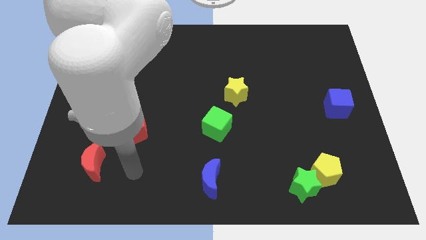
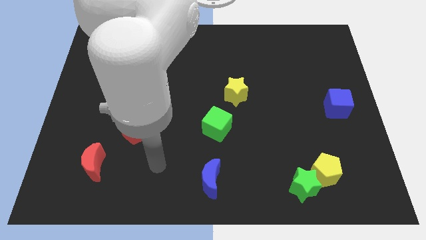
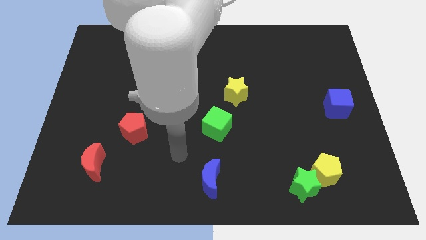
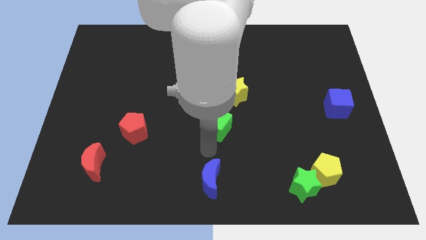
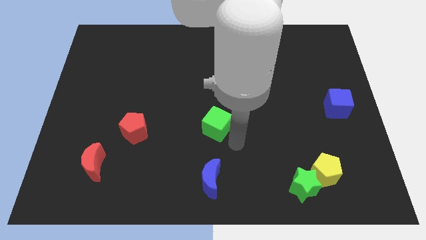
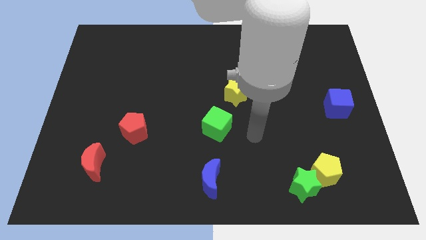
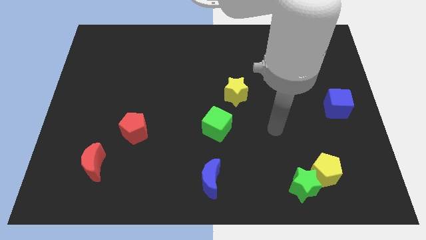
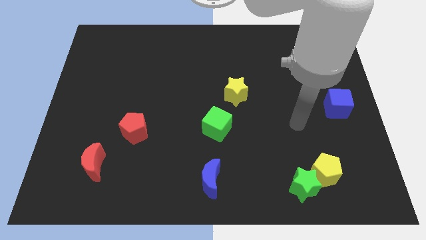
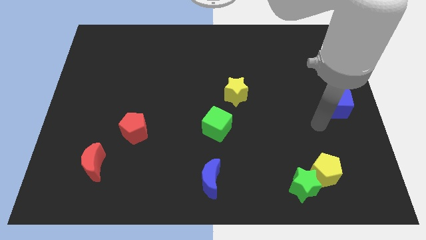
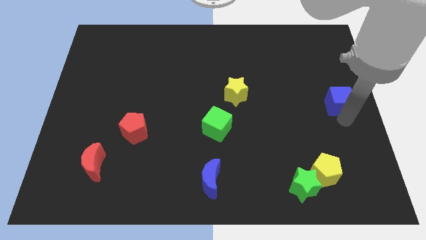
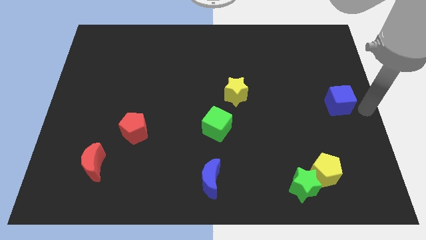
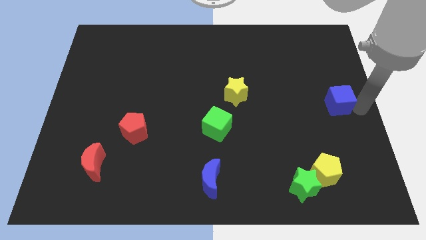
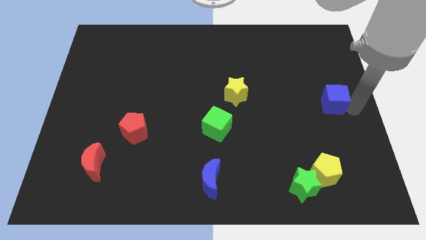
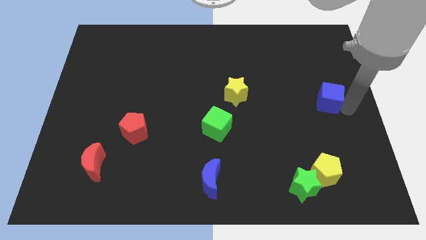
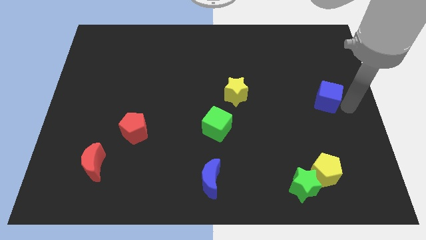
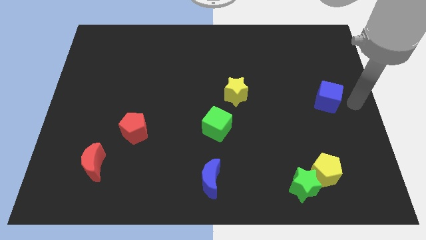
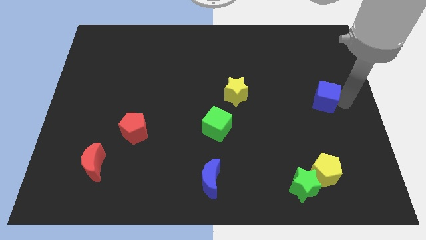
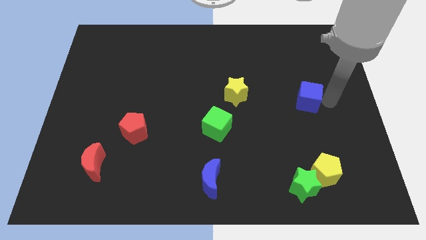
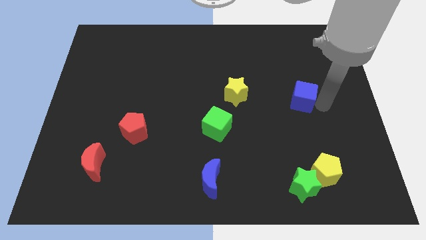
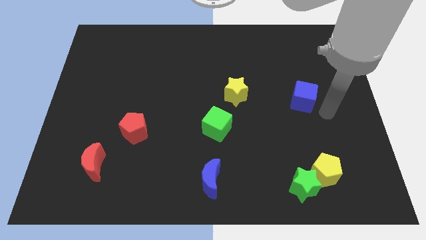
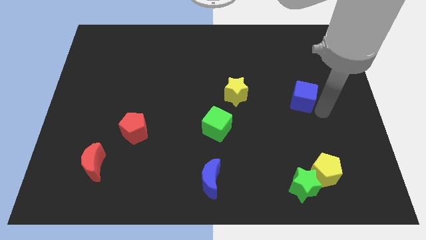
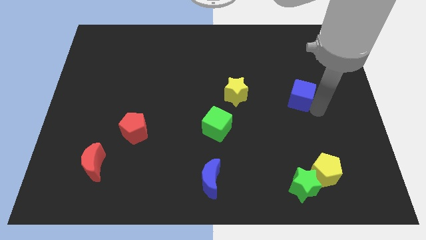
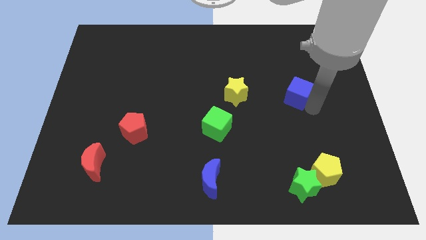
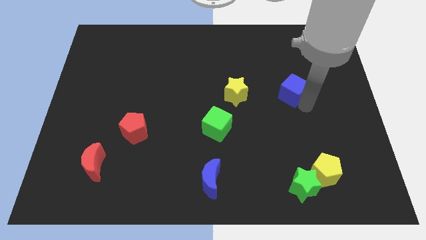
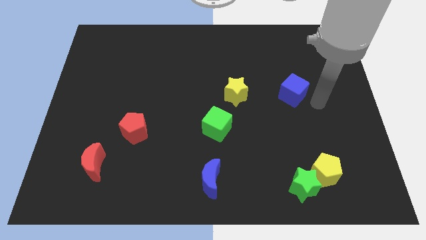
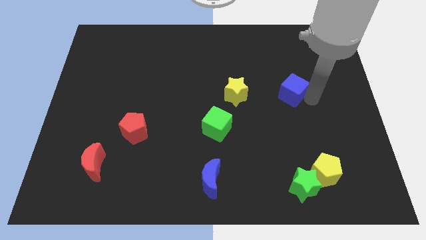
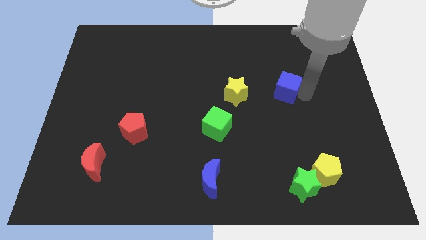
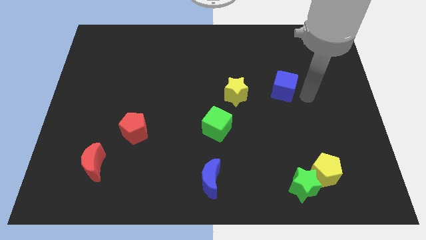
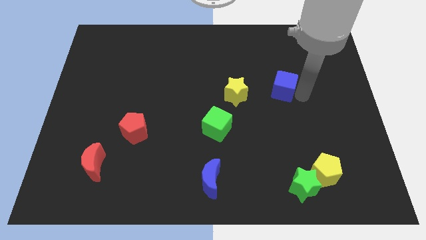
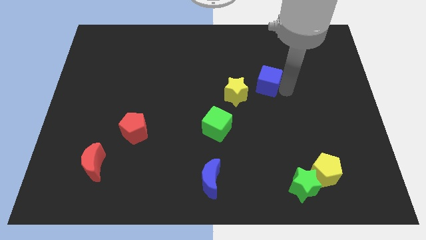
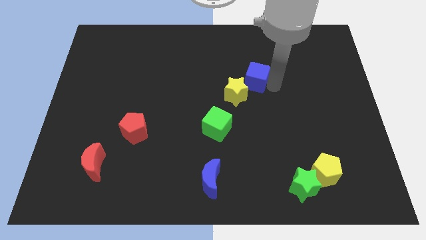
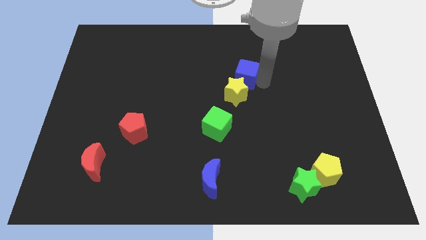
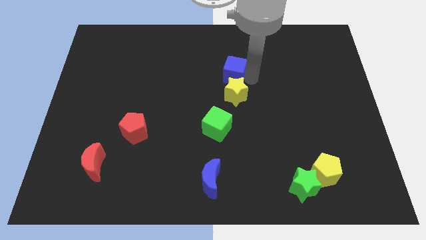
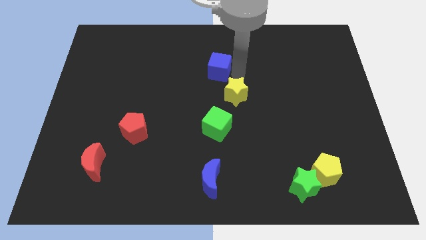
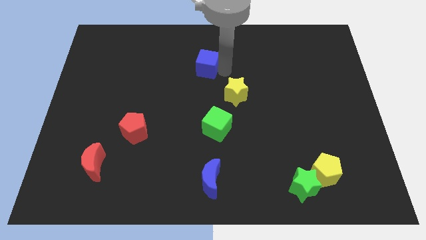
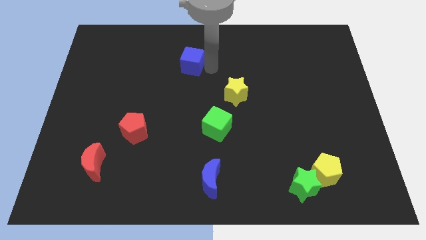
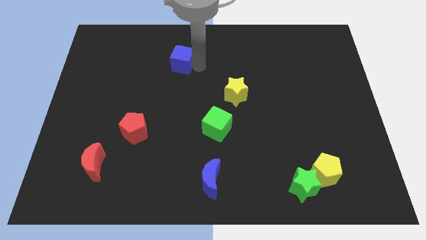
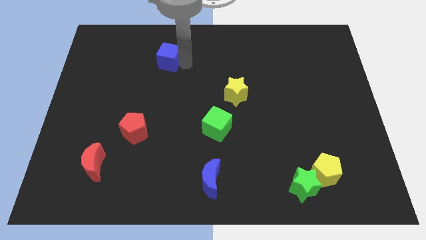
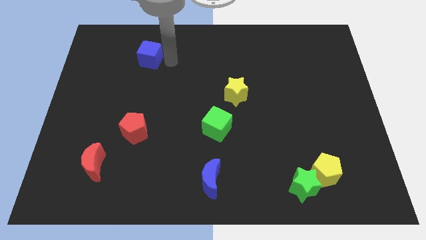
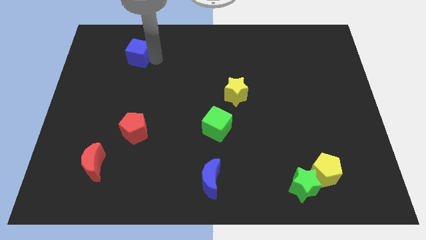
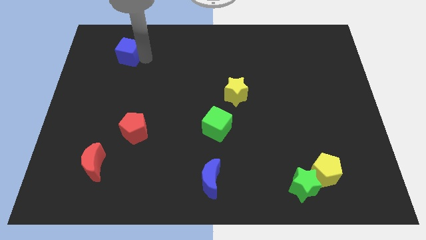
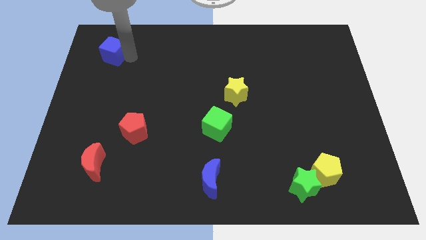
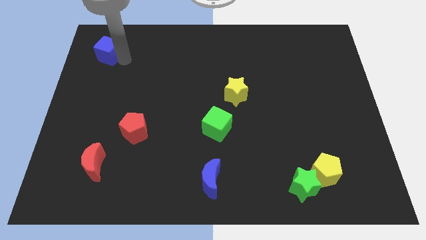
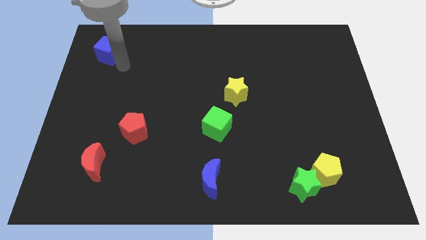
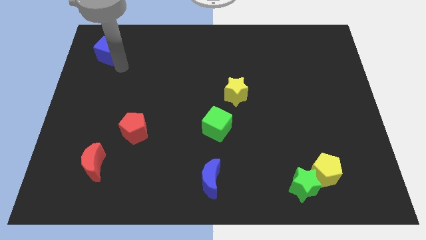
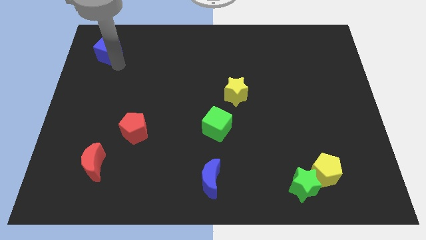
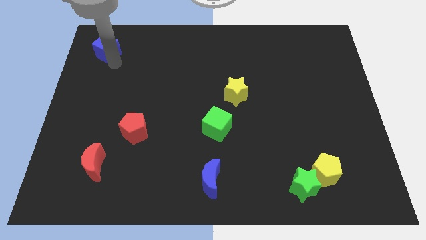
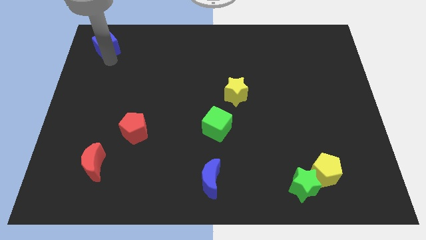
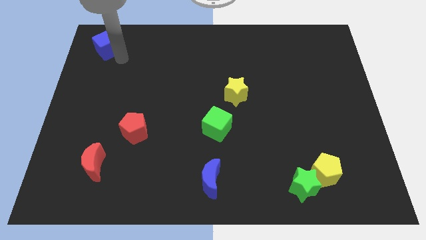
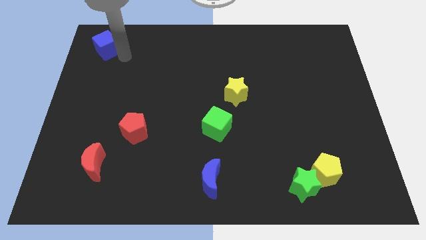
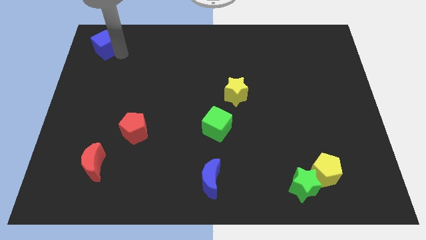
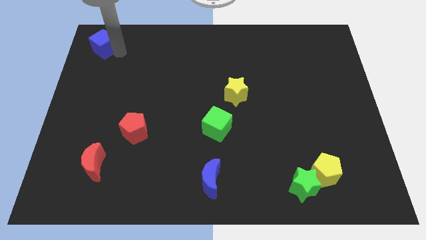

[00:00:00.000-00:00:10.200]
move the blue cube to the top left

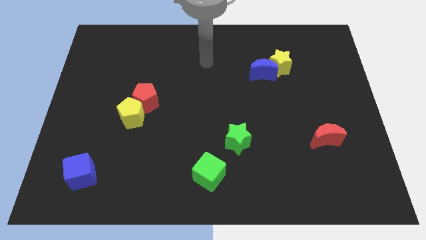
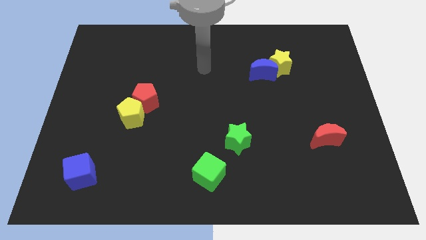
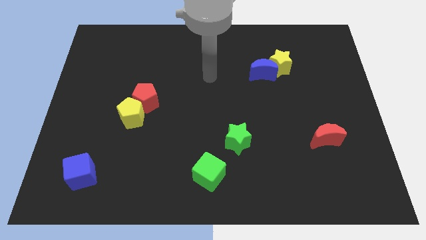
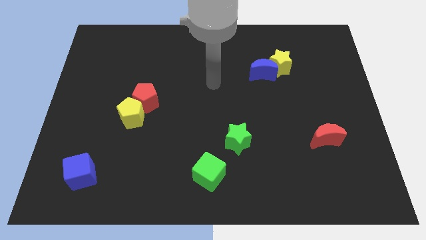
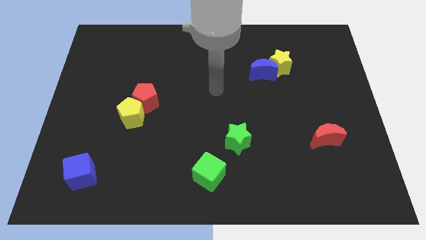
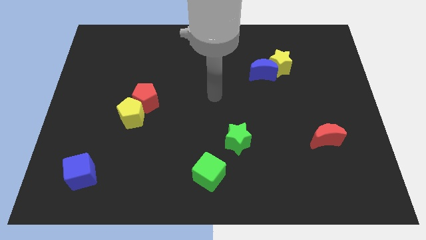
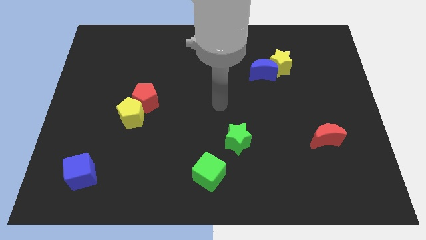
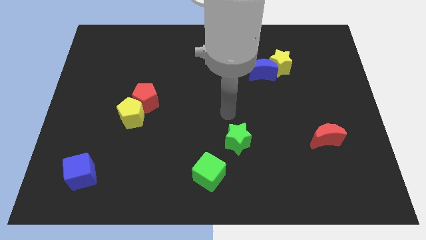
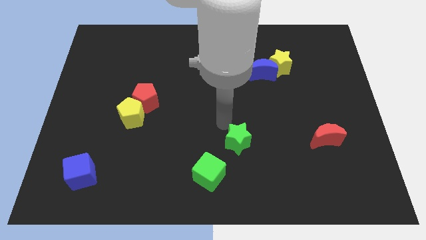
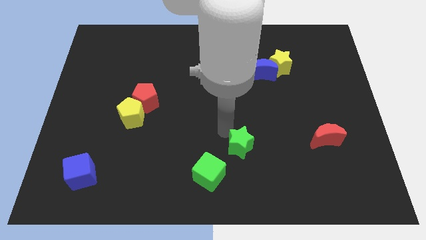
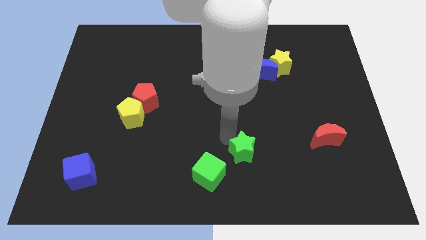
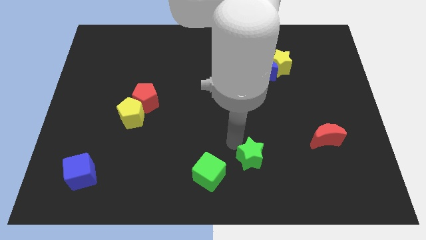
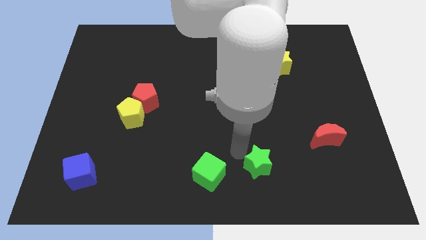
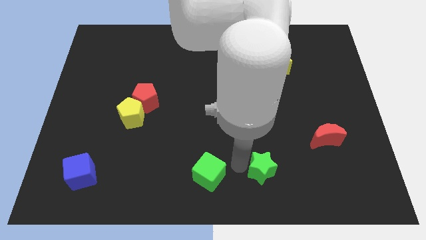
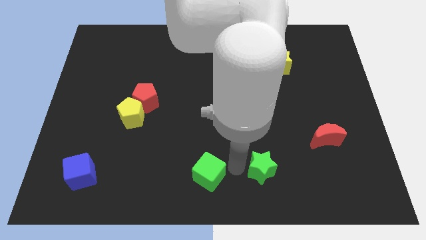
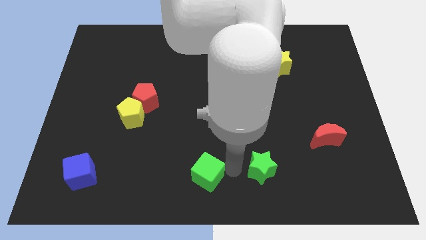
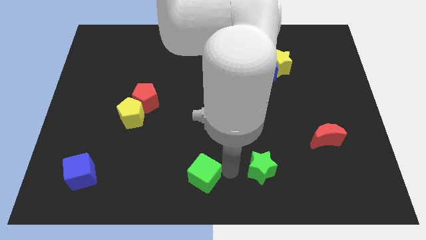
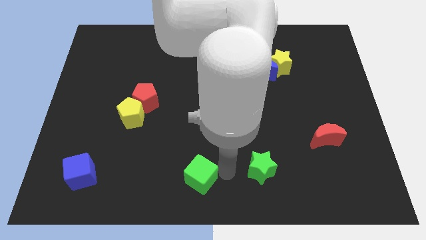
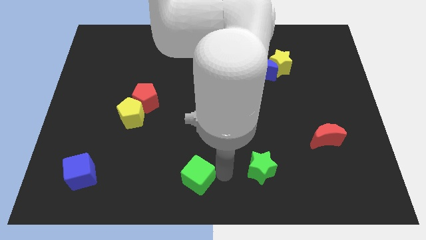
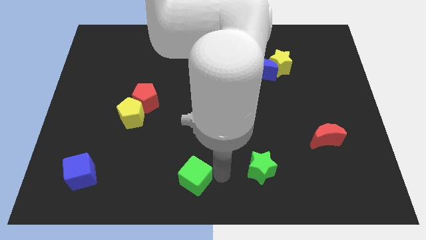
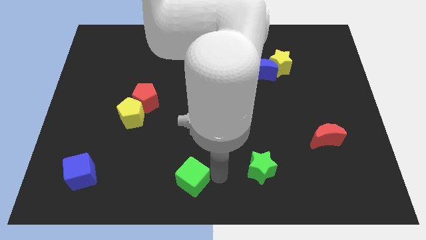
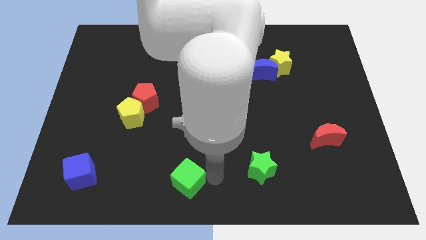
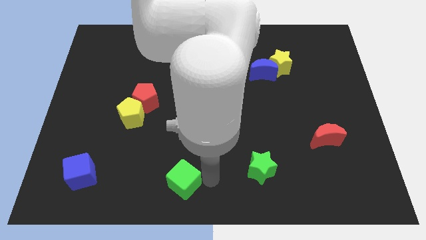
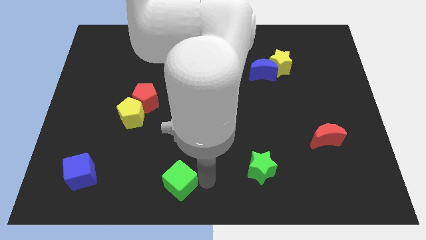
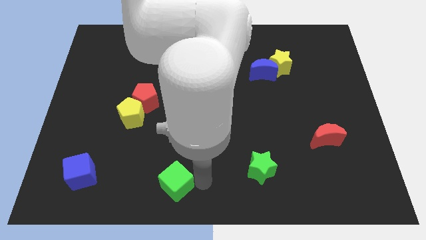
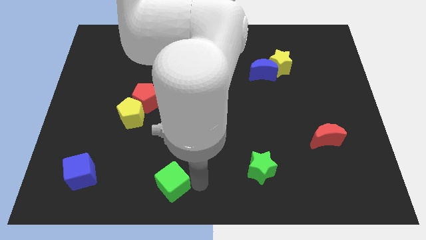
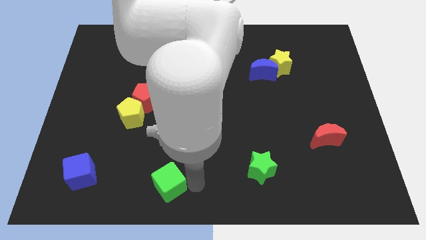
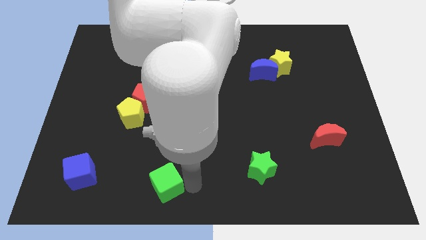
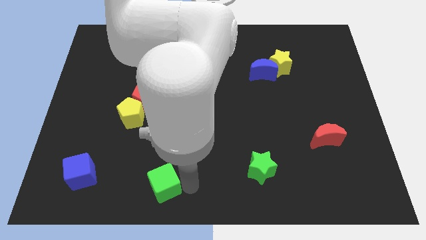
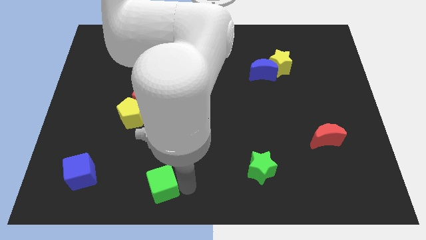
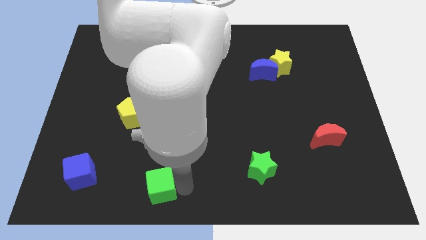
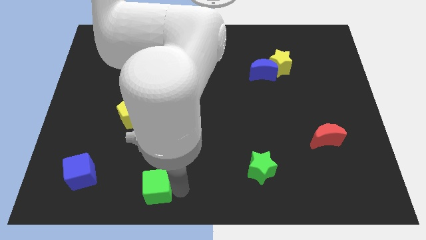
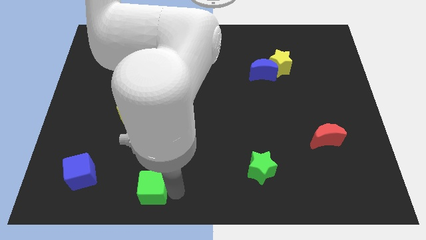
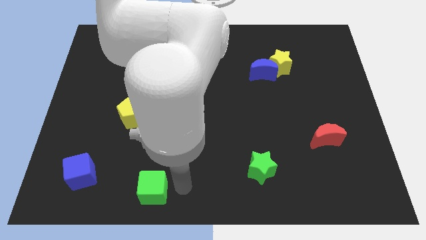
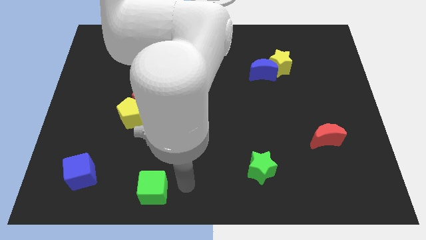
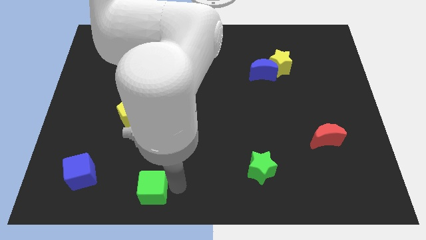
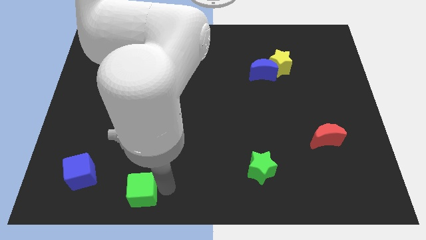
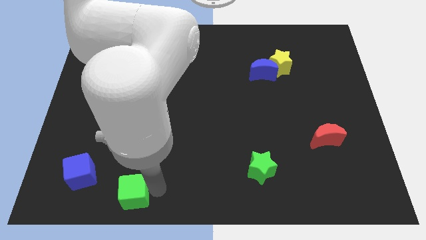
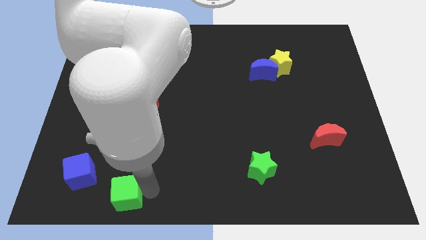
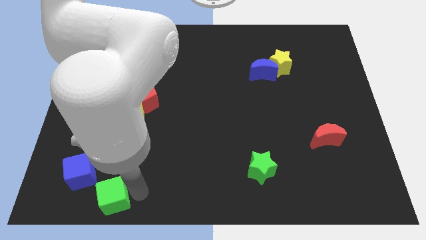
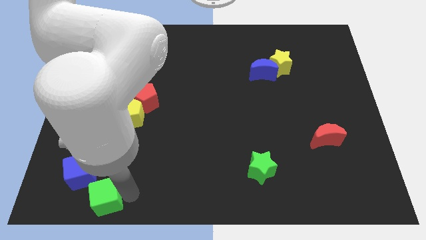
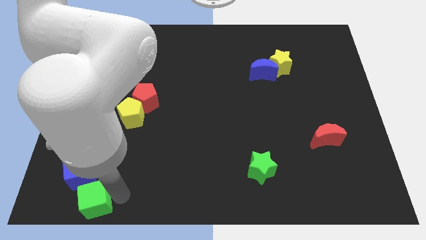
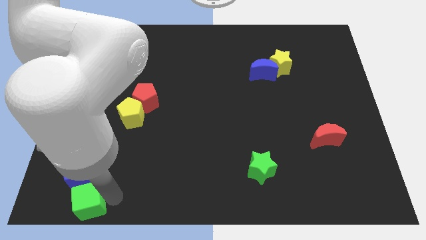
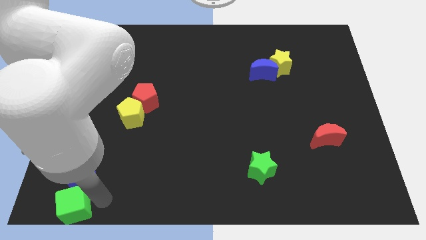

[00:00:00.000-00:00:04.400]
push the green cube to the bottom left corner
